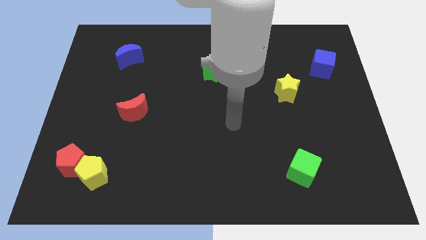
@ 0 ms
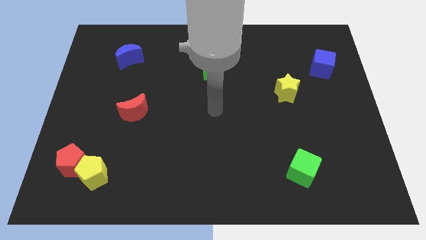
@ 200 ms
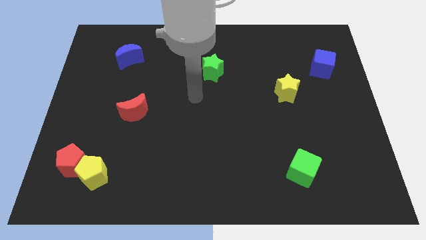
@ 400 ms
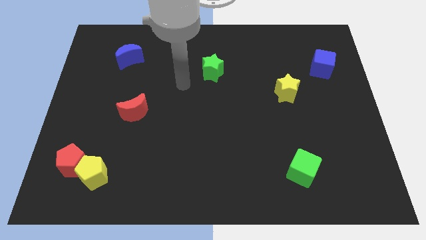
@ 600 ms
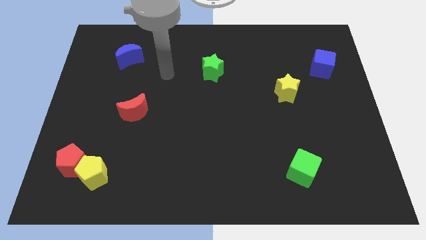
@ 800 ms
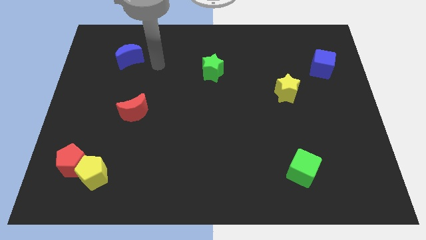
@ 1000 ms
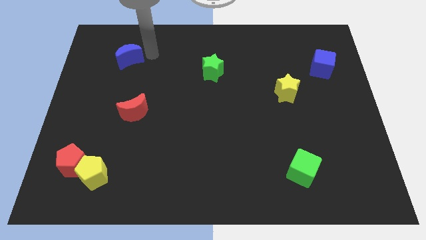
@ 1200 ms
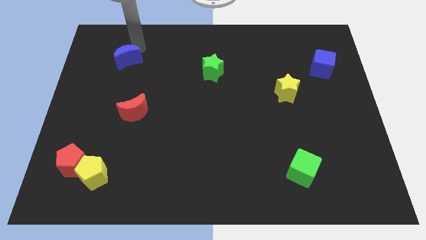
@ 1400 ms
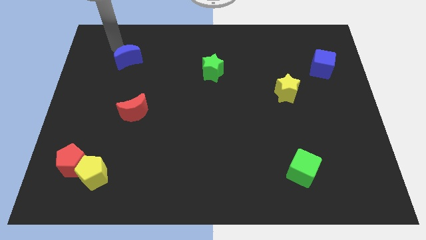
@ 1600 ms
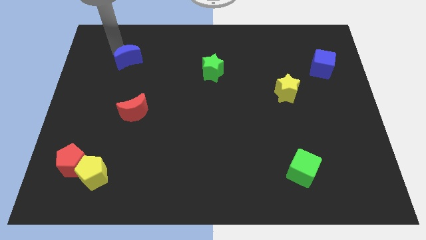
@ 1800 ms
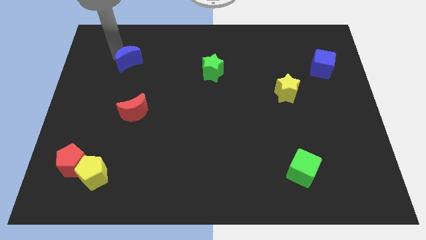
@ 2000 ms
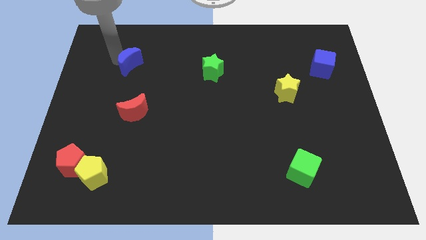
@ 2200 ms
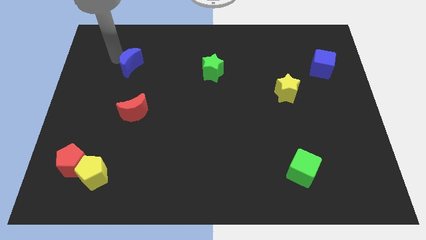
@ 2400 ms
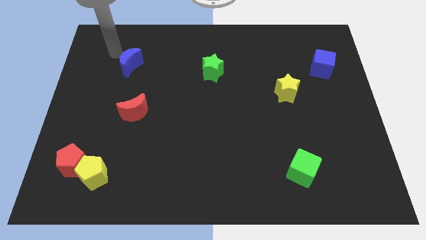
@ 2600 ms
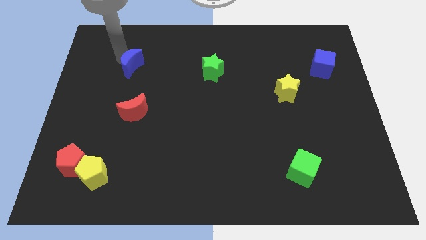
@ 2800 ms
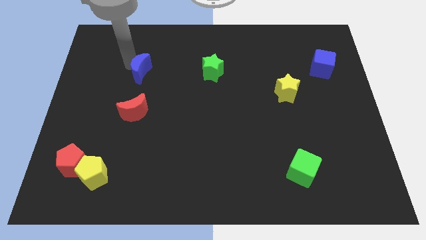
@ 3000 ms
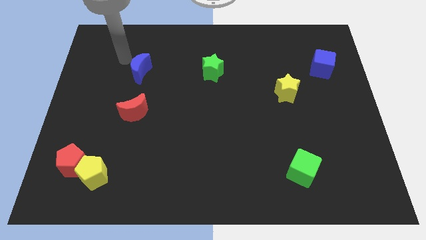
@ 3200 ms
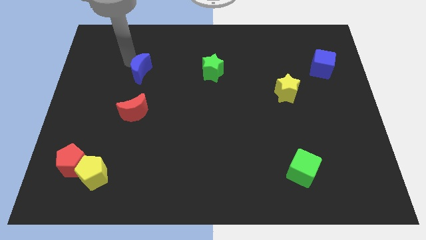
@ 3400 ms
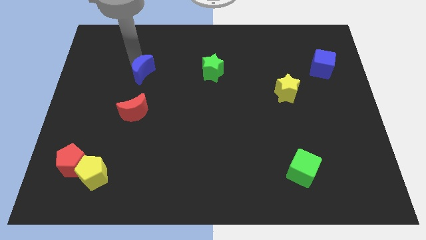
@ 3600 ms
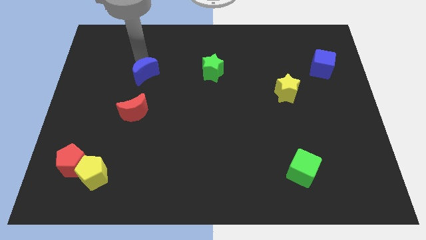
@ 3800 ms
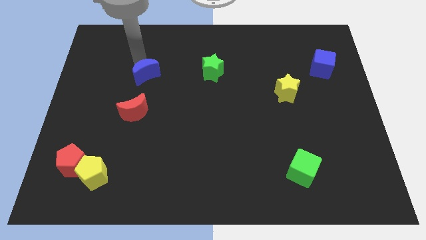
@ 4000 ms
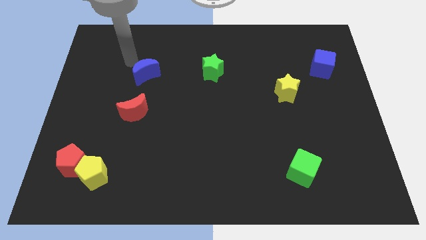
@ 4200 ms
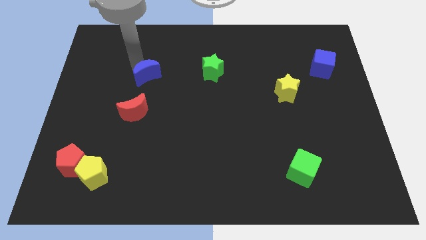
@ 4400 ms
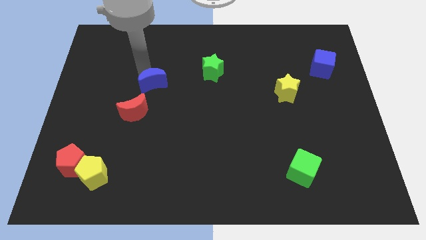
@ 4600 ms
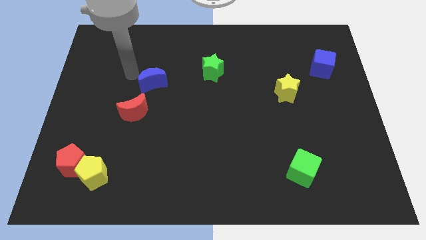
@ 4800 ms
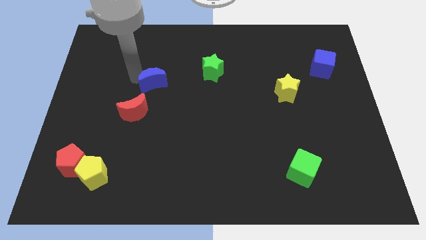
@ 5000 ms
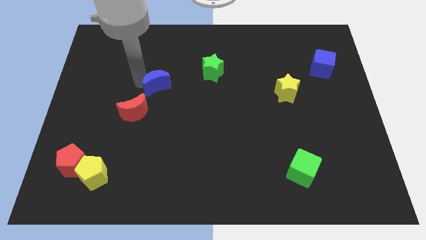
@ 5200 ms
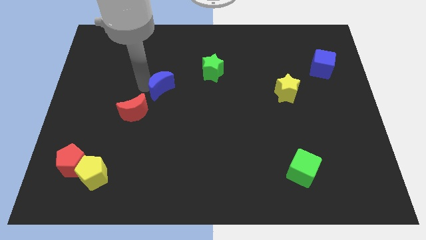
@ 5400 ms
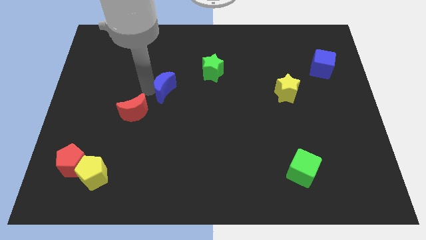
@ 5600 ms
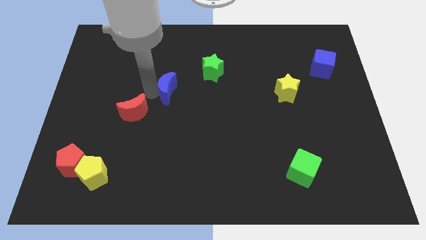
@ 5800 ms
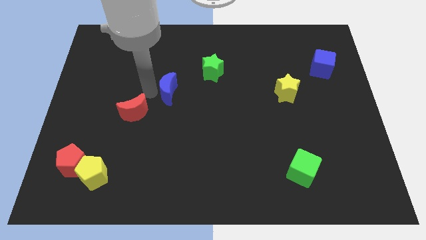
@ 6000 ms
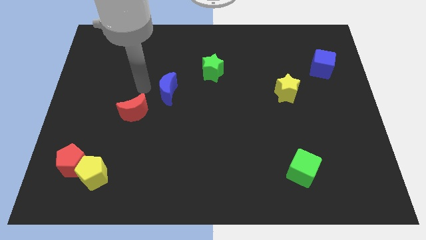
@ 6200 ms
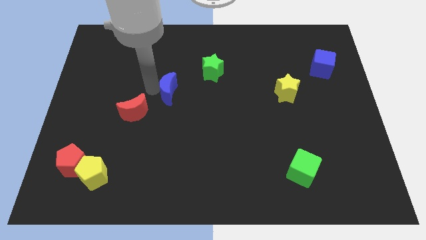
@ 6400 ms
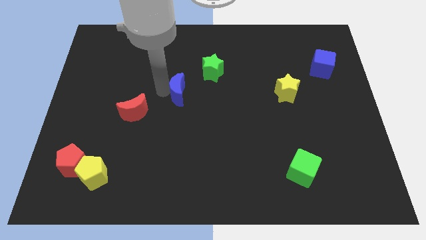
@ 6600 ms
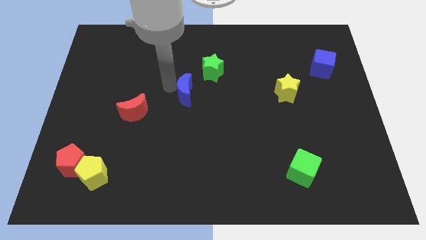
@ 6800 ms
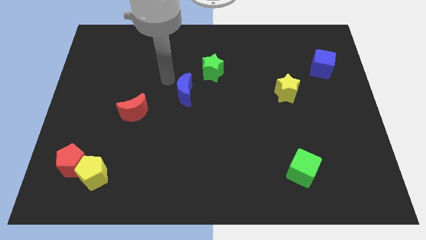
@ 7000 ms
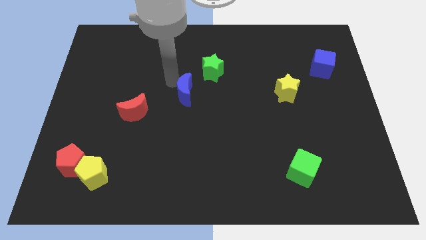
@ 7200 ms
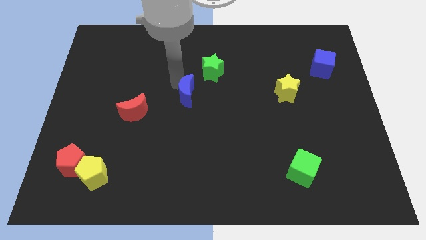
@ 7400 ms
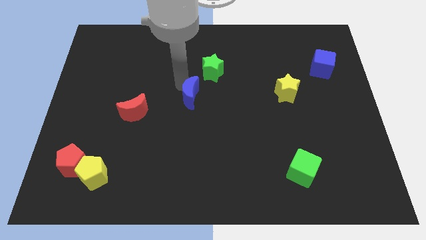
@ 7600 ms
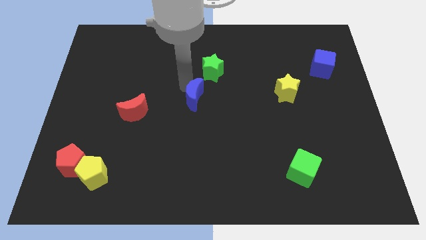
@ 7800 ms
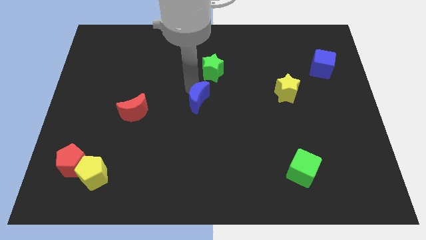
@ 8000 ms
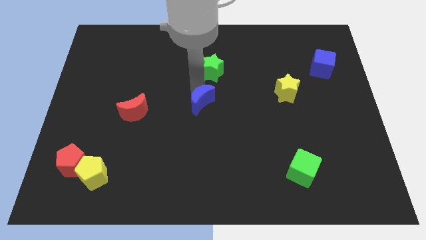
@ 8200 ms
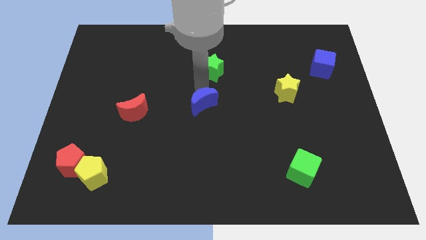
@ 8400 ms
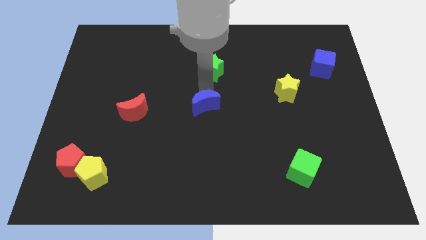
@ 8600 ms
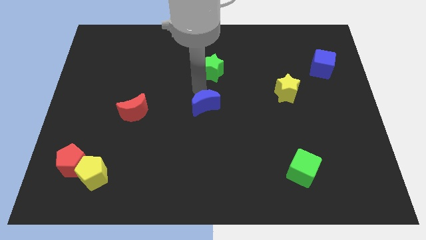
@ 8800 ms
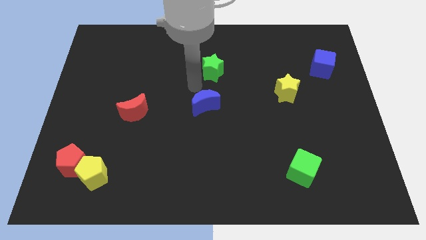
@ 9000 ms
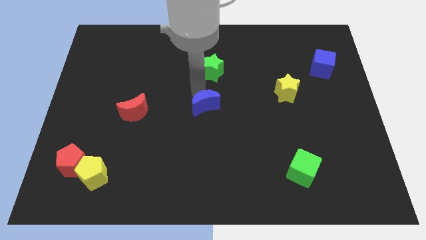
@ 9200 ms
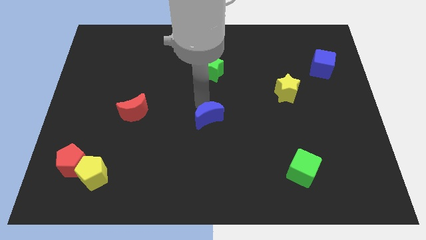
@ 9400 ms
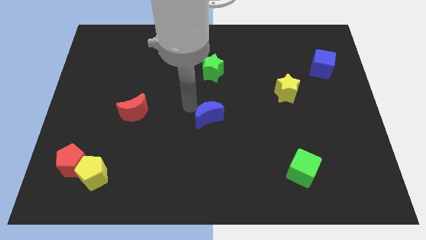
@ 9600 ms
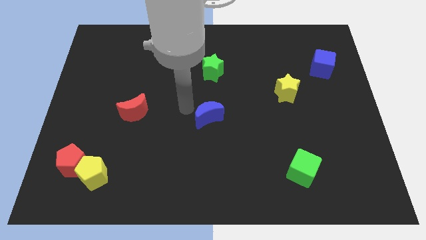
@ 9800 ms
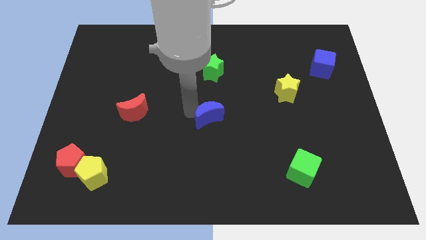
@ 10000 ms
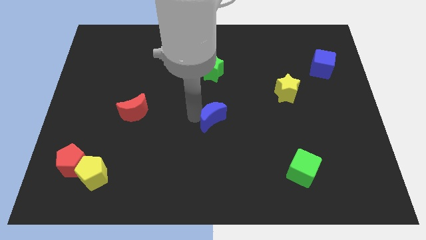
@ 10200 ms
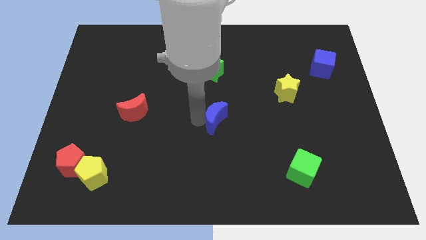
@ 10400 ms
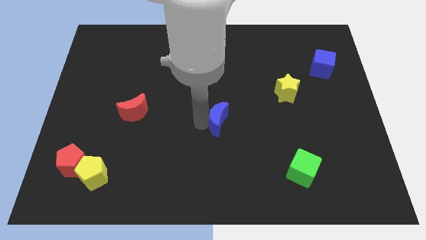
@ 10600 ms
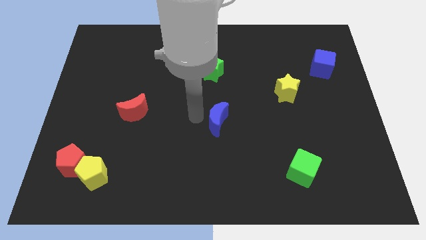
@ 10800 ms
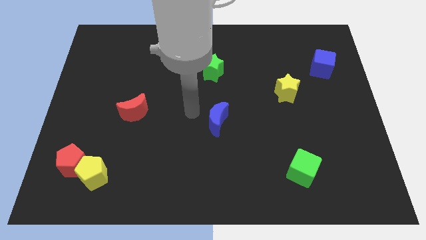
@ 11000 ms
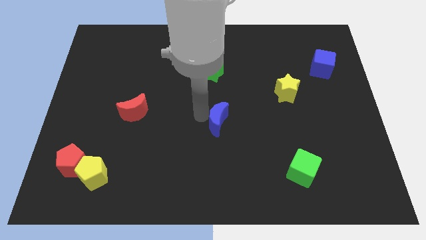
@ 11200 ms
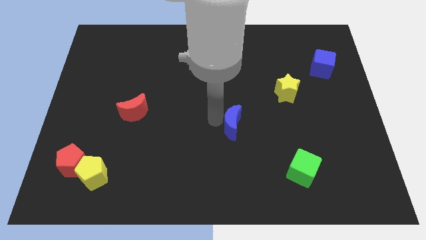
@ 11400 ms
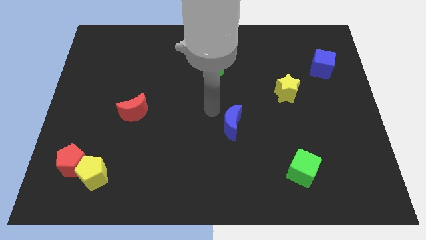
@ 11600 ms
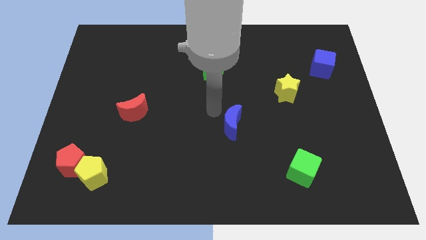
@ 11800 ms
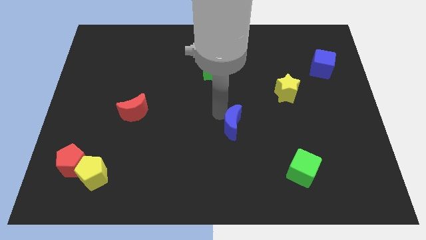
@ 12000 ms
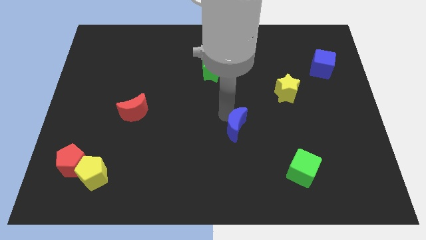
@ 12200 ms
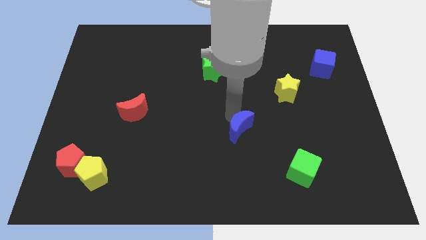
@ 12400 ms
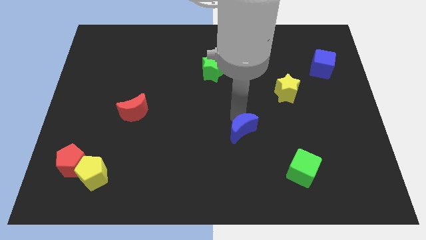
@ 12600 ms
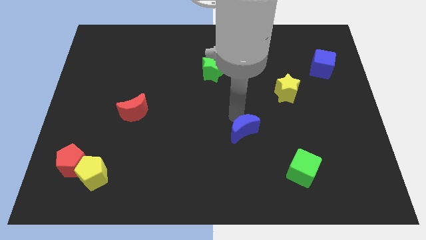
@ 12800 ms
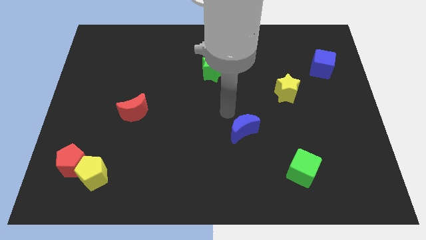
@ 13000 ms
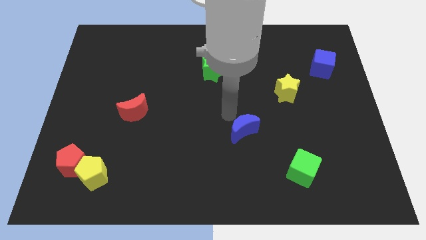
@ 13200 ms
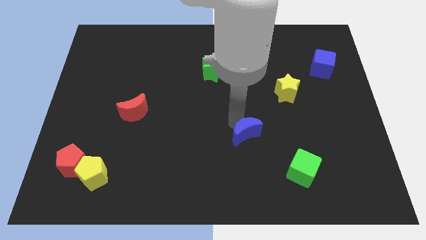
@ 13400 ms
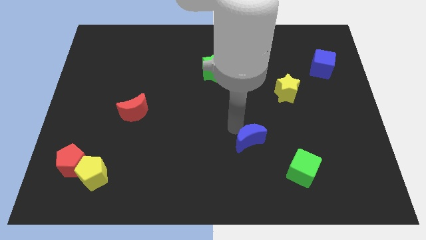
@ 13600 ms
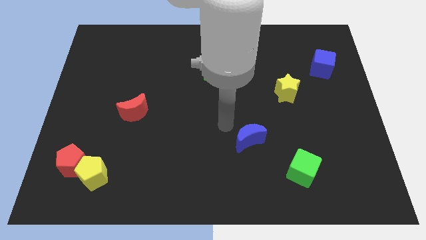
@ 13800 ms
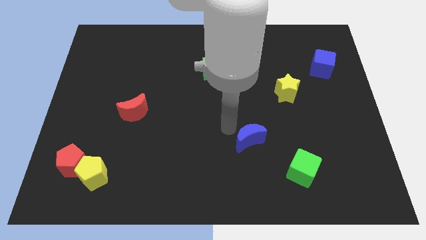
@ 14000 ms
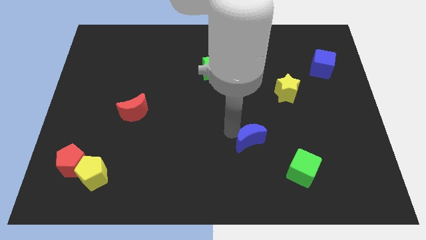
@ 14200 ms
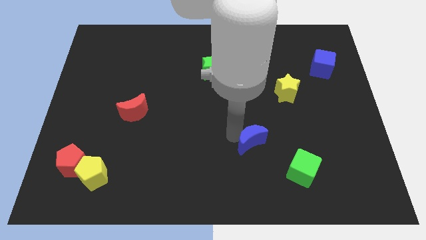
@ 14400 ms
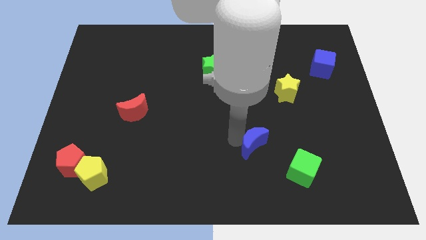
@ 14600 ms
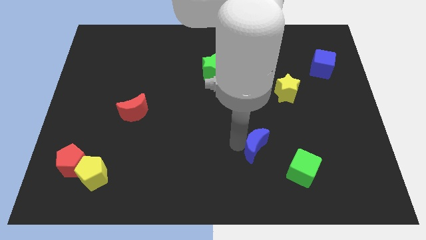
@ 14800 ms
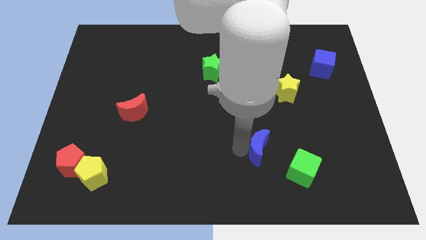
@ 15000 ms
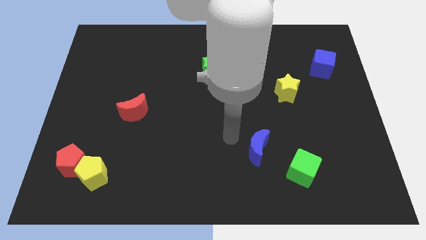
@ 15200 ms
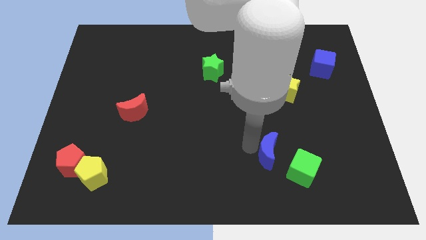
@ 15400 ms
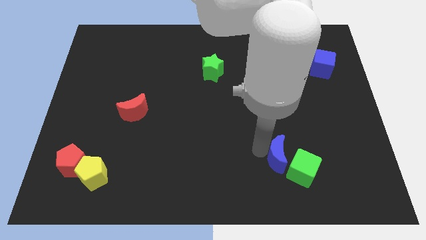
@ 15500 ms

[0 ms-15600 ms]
slide the blue moon to the green cube
